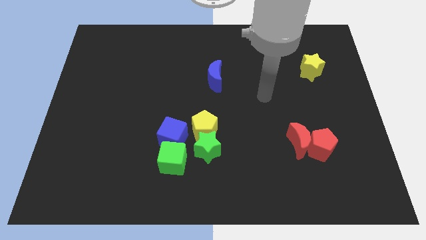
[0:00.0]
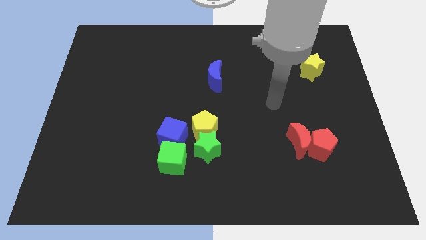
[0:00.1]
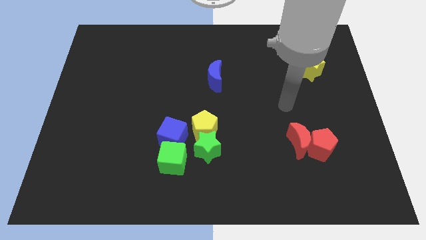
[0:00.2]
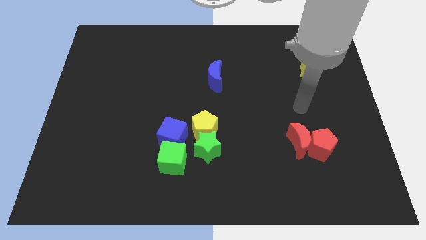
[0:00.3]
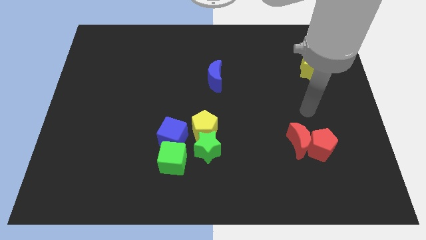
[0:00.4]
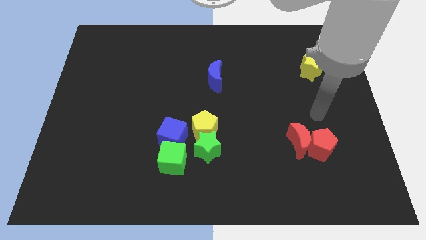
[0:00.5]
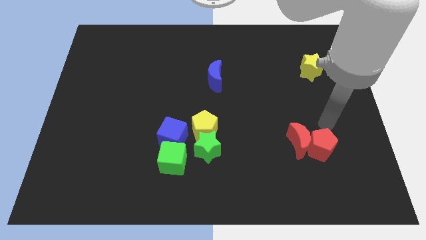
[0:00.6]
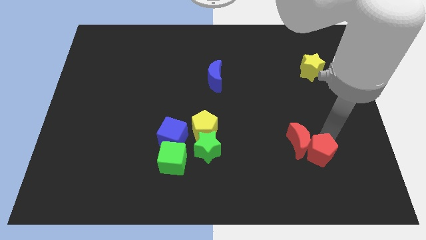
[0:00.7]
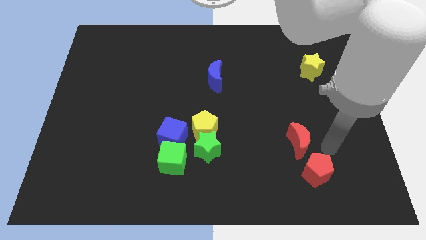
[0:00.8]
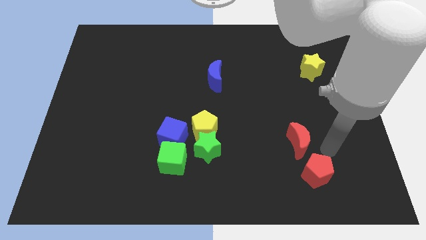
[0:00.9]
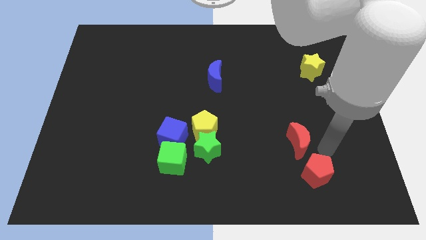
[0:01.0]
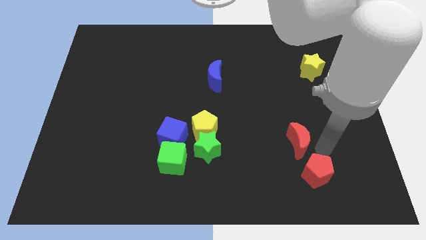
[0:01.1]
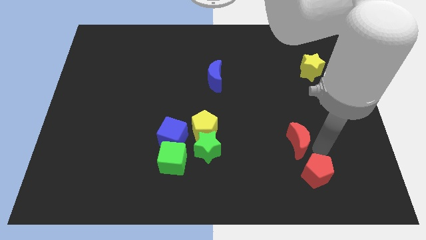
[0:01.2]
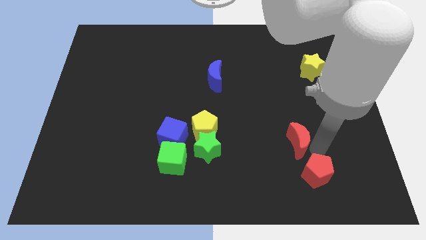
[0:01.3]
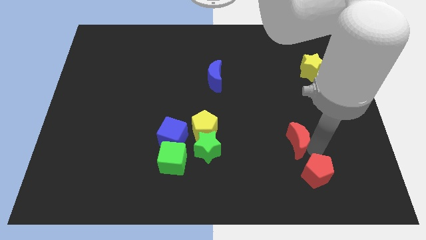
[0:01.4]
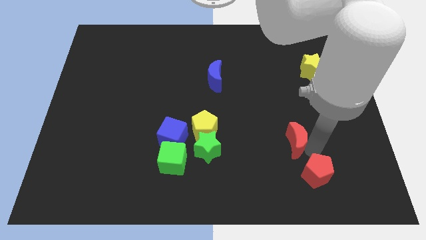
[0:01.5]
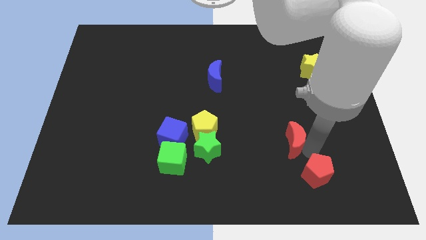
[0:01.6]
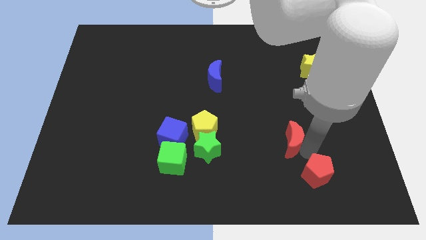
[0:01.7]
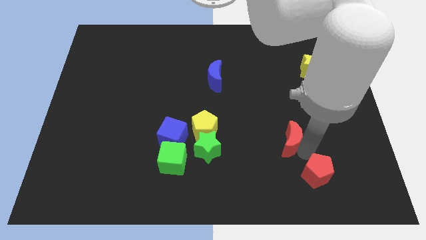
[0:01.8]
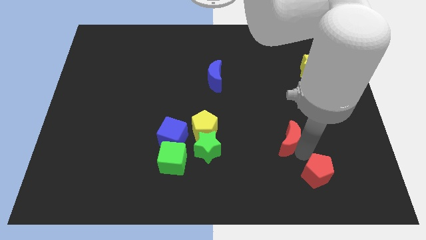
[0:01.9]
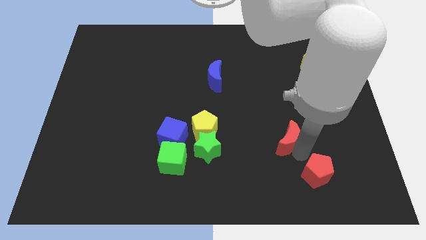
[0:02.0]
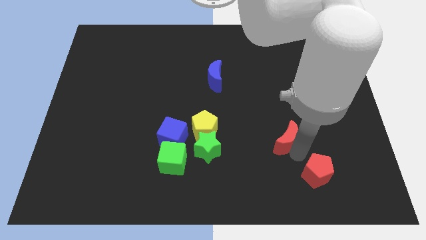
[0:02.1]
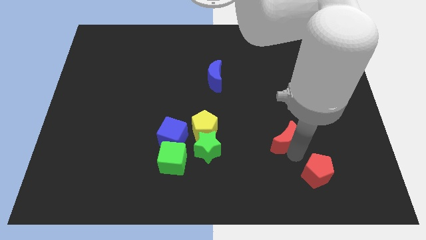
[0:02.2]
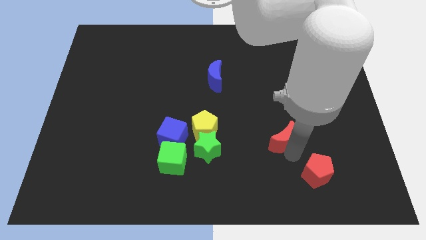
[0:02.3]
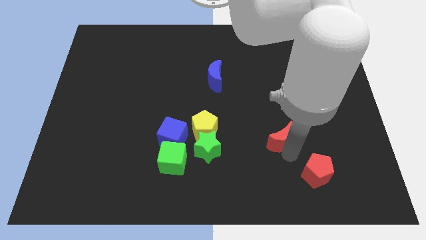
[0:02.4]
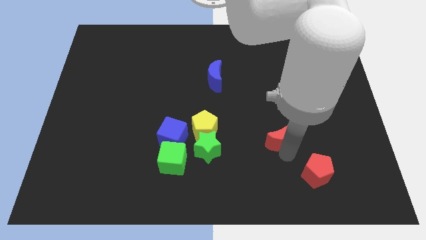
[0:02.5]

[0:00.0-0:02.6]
move the red moon away from the red pentagon

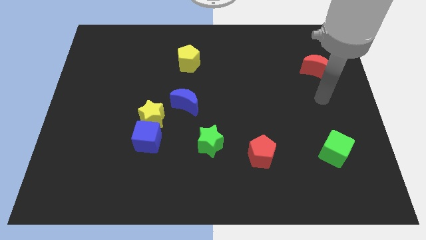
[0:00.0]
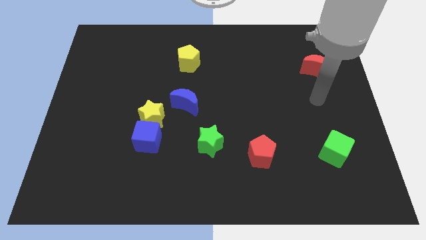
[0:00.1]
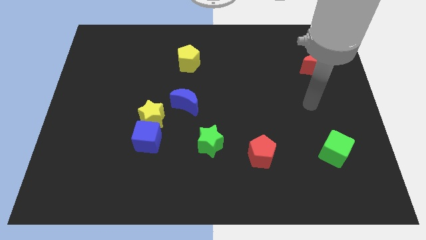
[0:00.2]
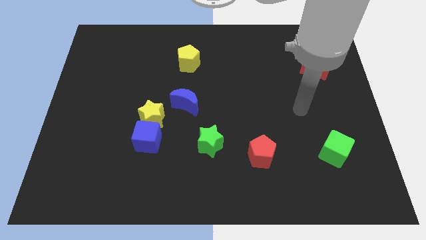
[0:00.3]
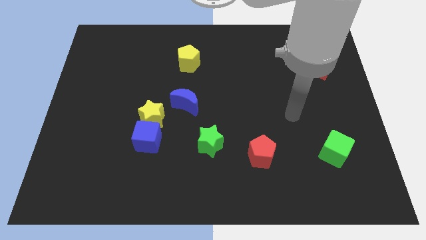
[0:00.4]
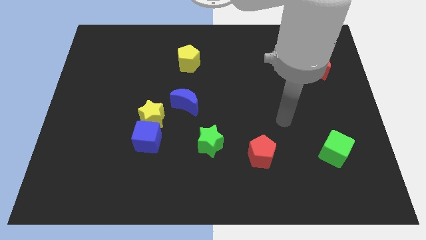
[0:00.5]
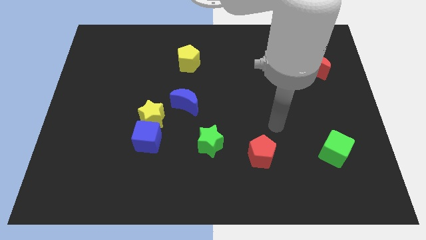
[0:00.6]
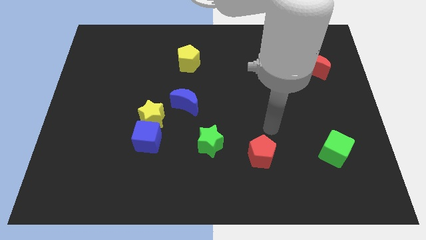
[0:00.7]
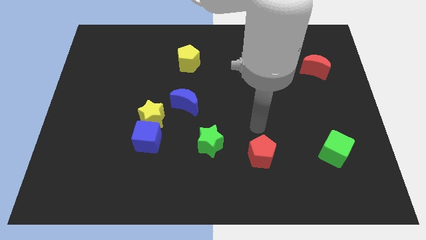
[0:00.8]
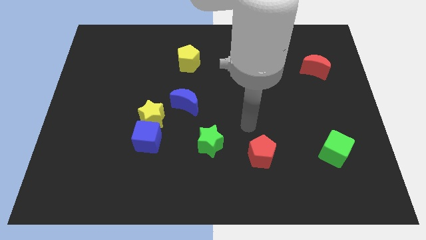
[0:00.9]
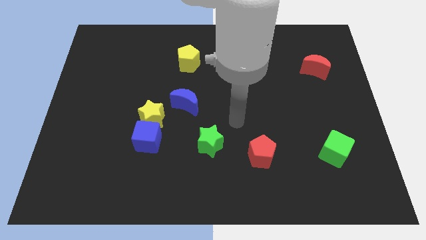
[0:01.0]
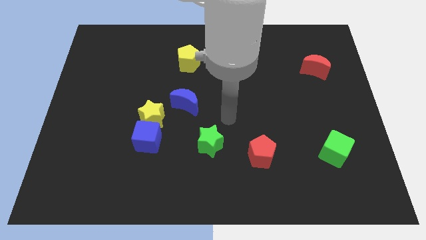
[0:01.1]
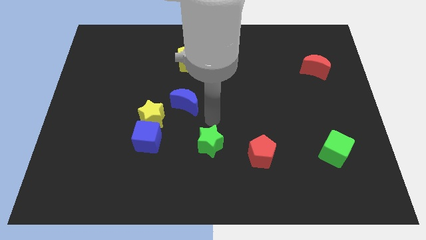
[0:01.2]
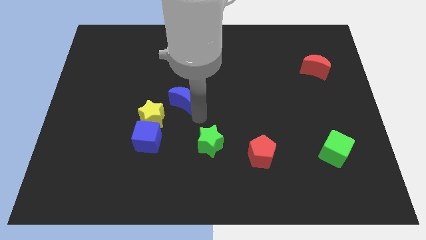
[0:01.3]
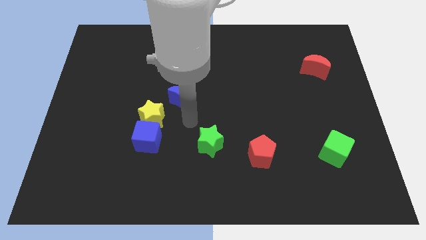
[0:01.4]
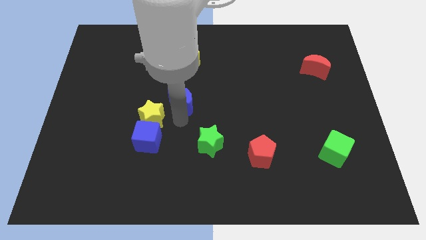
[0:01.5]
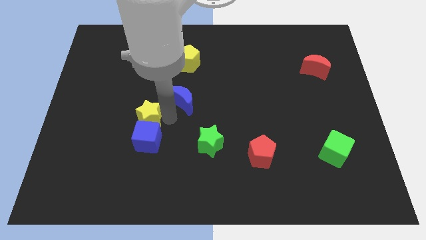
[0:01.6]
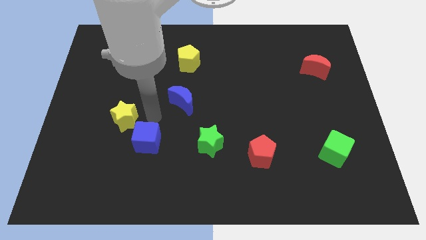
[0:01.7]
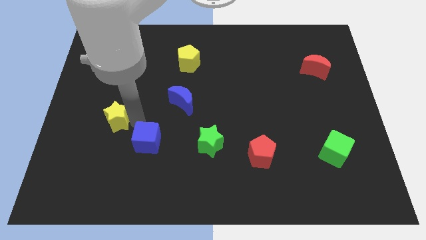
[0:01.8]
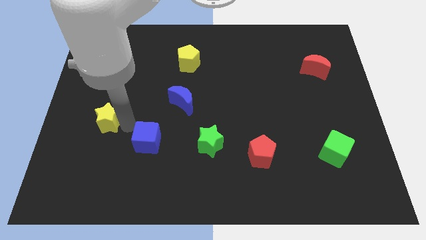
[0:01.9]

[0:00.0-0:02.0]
move the blue cube away from the yellow star

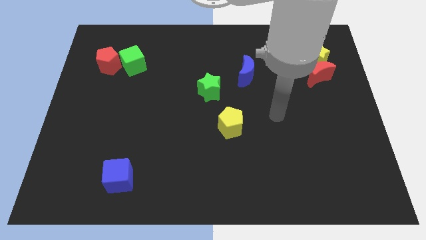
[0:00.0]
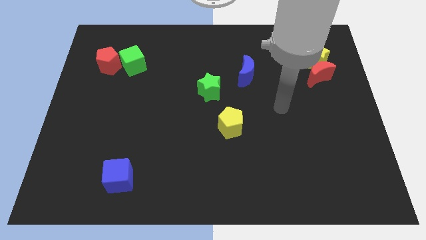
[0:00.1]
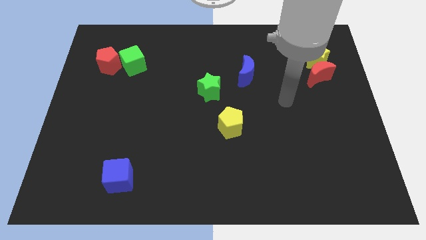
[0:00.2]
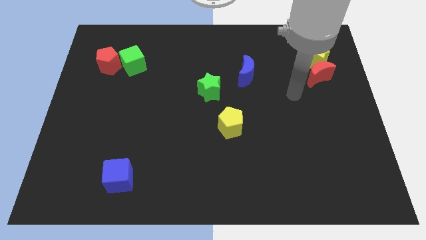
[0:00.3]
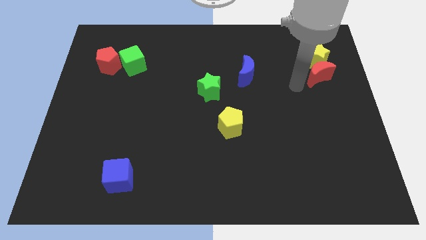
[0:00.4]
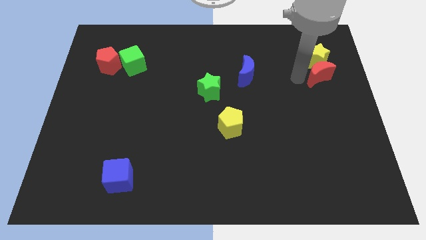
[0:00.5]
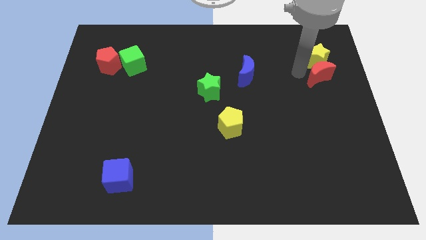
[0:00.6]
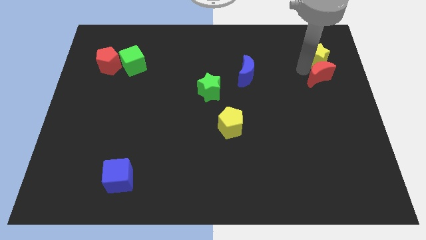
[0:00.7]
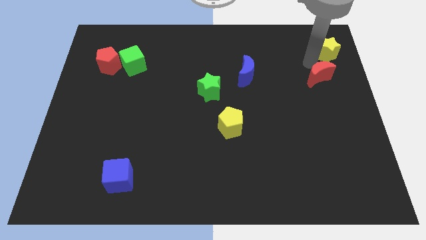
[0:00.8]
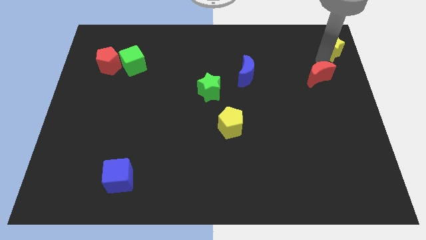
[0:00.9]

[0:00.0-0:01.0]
separate the red moon from the yellow star

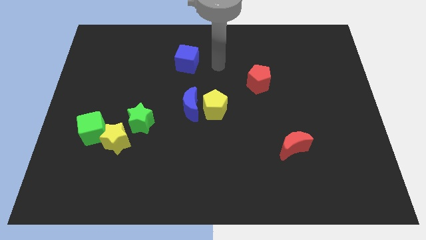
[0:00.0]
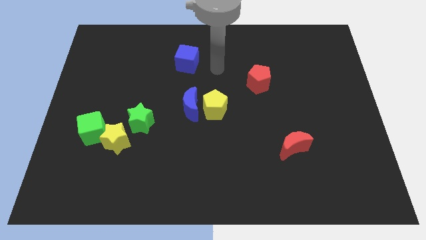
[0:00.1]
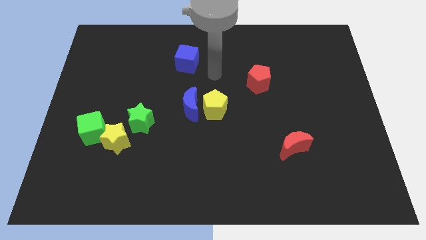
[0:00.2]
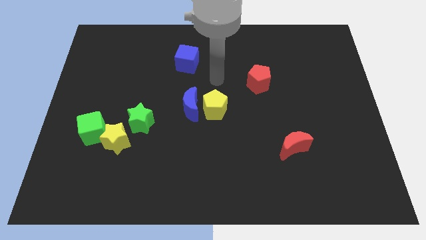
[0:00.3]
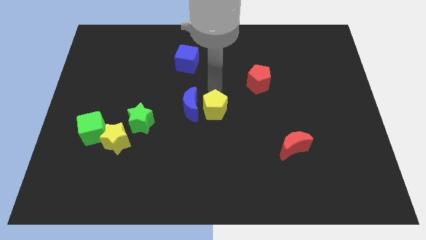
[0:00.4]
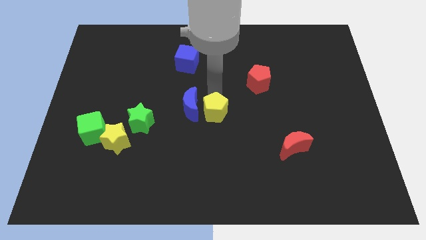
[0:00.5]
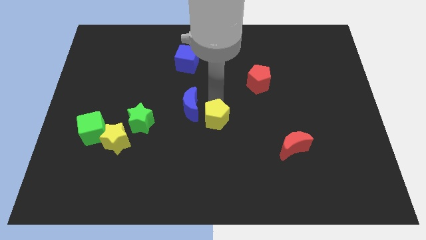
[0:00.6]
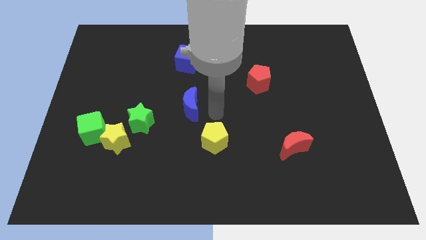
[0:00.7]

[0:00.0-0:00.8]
separate the blue moon from the yellow pentagon

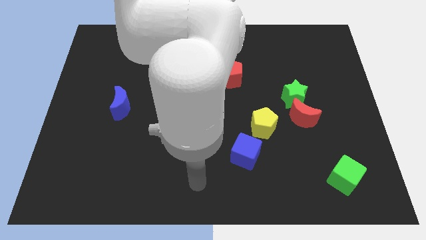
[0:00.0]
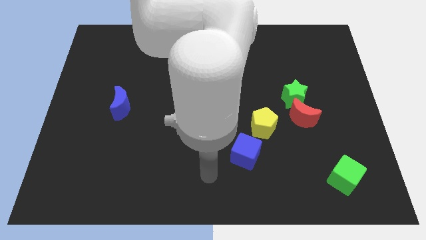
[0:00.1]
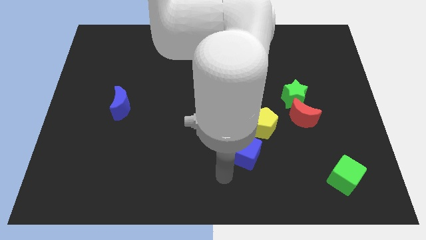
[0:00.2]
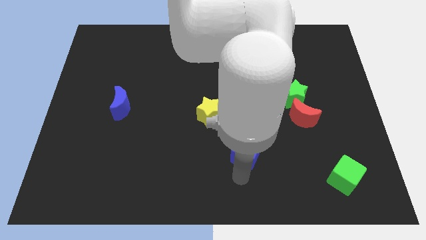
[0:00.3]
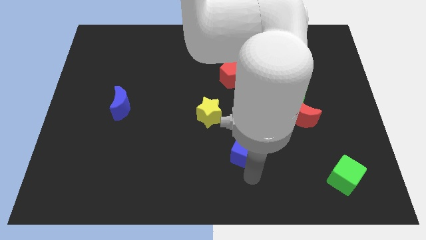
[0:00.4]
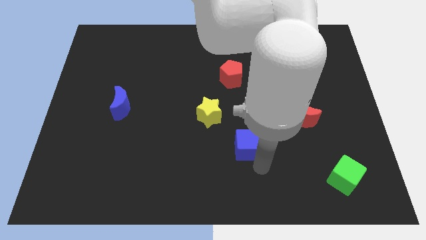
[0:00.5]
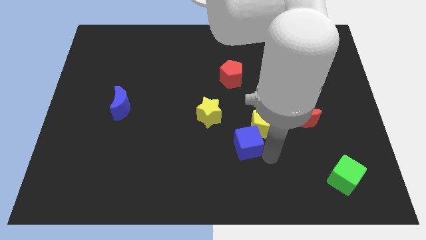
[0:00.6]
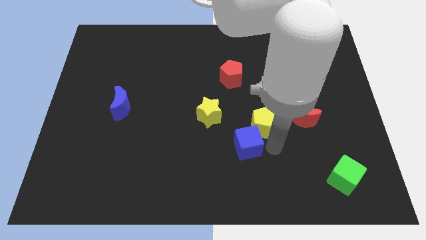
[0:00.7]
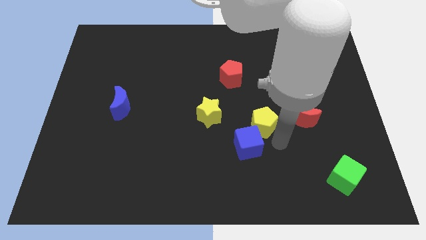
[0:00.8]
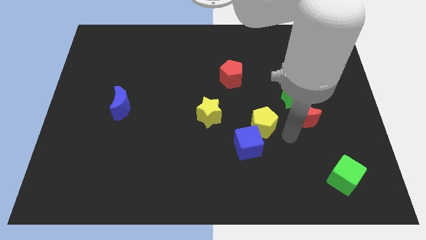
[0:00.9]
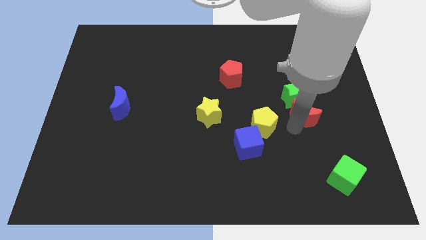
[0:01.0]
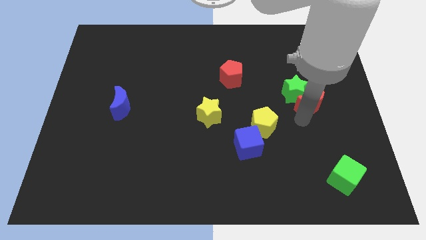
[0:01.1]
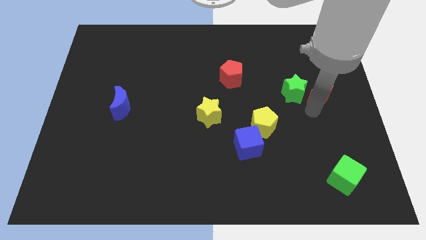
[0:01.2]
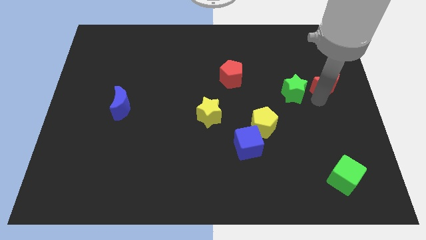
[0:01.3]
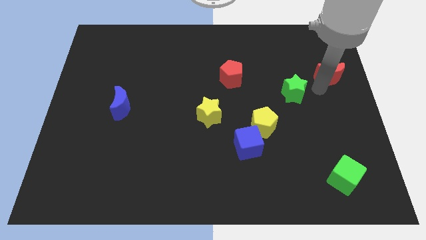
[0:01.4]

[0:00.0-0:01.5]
move the green star away from the red moon

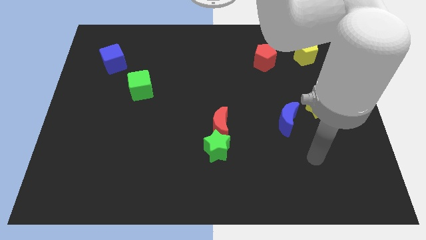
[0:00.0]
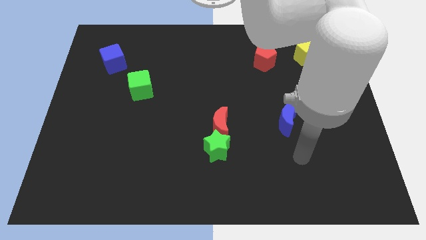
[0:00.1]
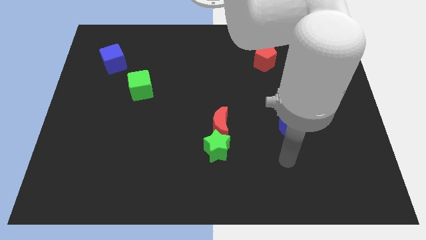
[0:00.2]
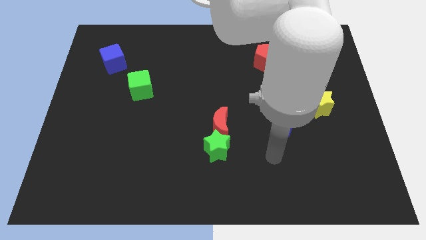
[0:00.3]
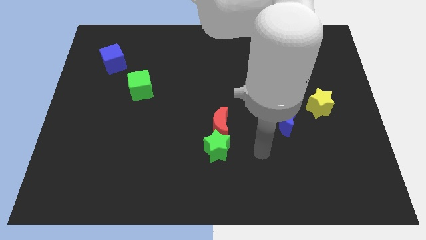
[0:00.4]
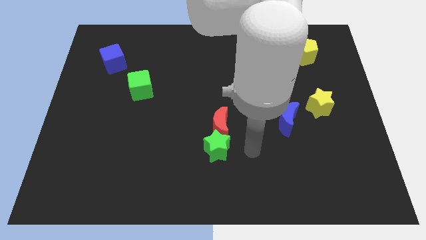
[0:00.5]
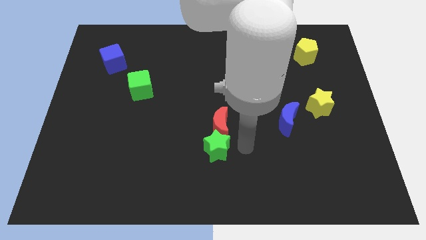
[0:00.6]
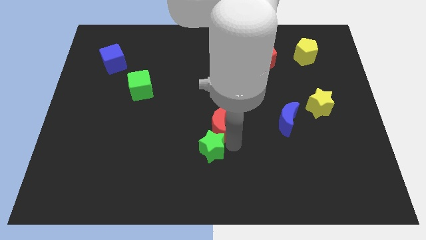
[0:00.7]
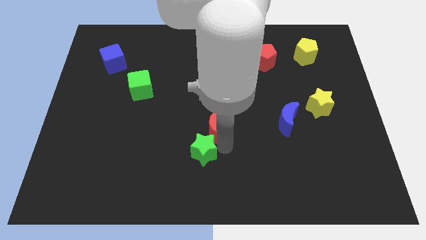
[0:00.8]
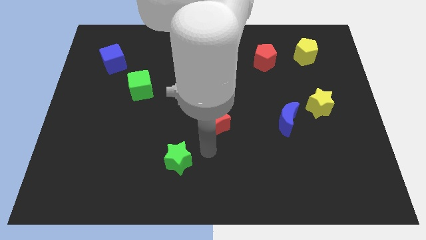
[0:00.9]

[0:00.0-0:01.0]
pull the red moon apart from the green star

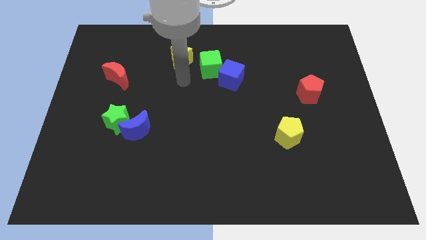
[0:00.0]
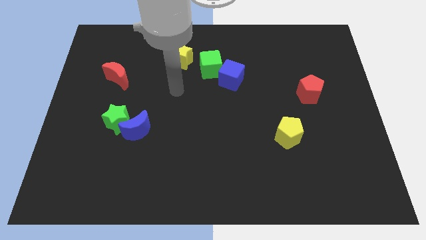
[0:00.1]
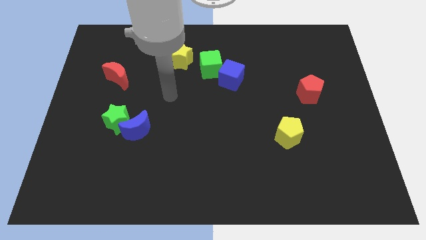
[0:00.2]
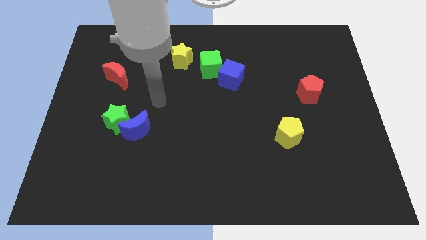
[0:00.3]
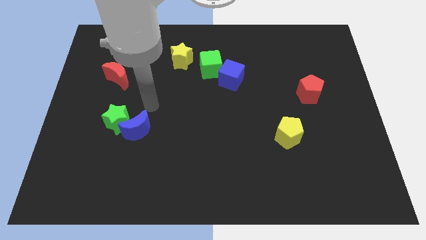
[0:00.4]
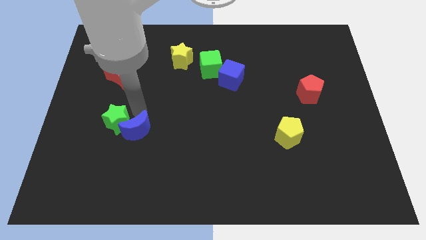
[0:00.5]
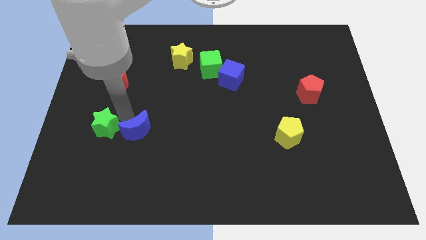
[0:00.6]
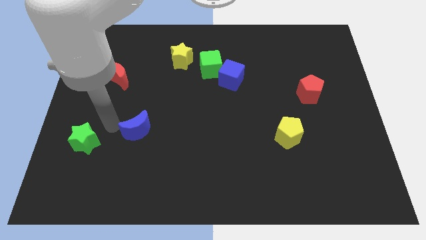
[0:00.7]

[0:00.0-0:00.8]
move the blue moon away from the green star
